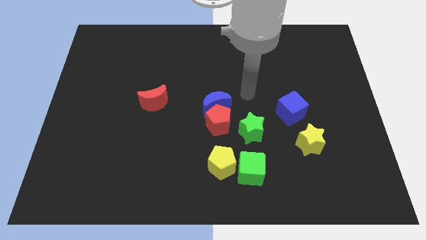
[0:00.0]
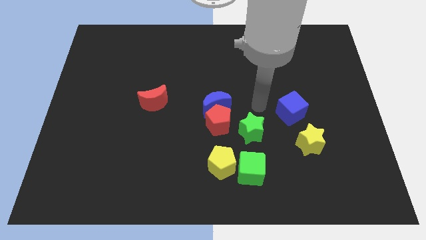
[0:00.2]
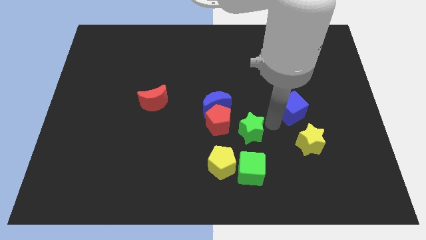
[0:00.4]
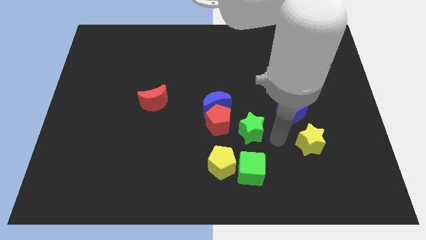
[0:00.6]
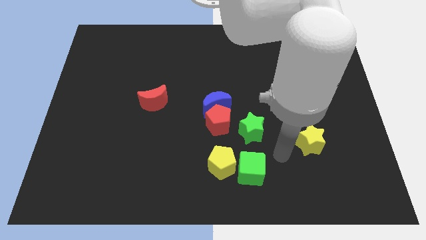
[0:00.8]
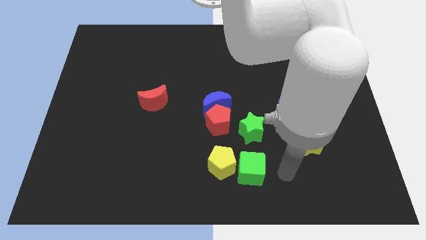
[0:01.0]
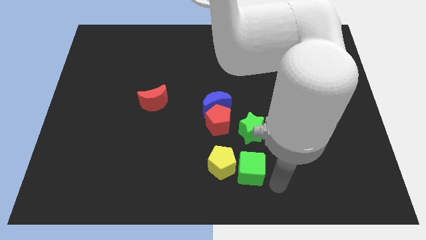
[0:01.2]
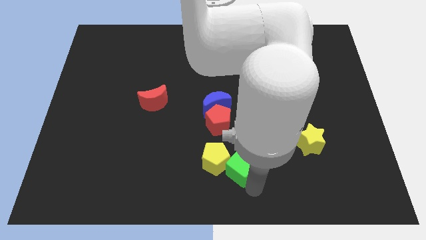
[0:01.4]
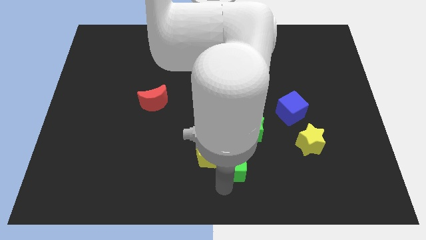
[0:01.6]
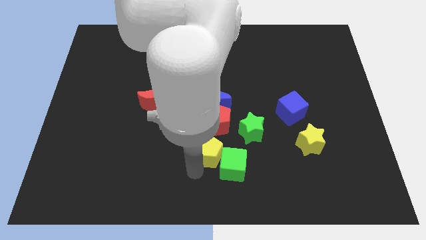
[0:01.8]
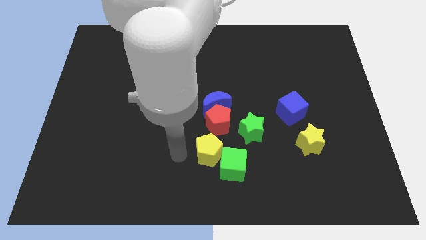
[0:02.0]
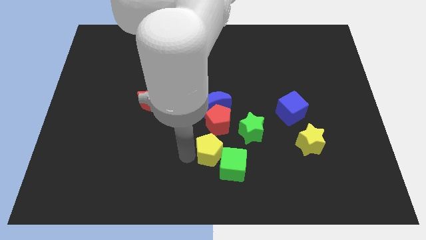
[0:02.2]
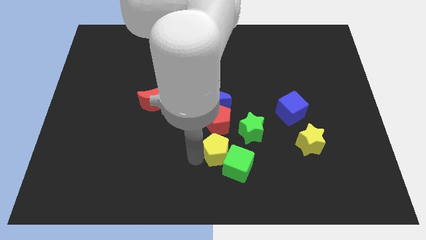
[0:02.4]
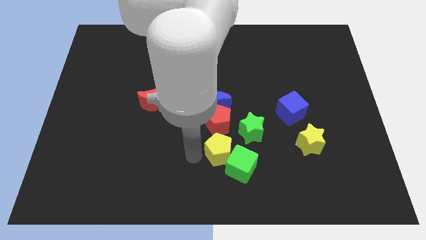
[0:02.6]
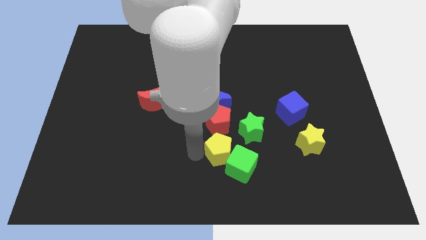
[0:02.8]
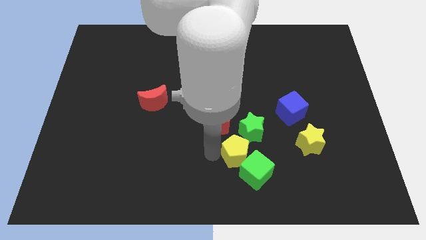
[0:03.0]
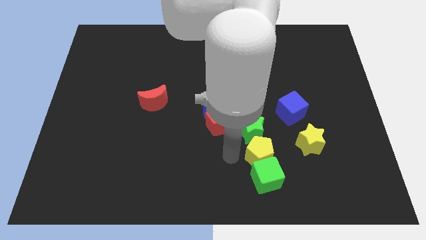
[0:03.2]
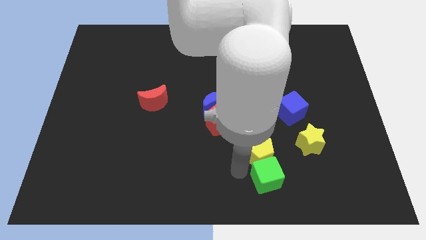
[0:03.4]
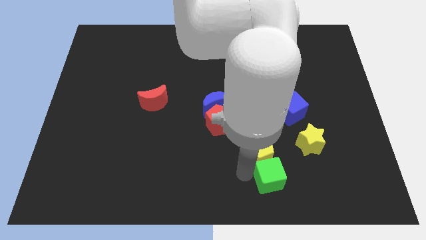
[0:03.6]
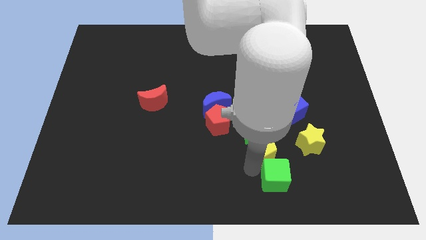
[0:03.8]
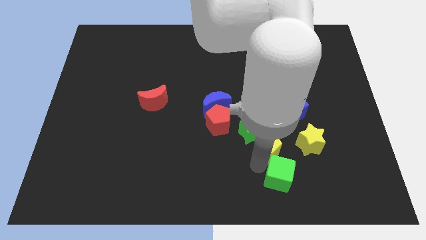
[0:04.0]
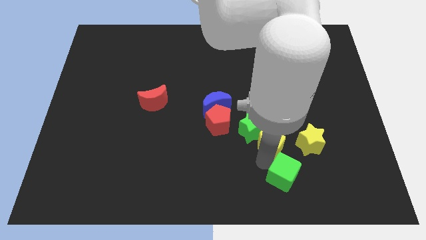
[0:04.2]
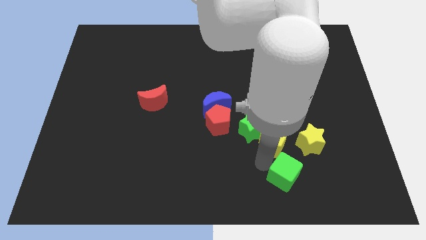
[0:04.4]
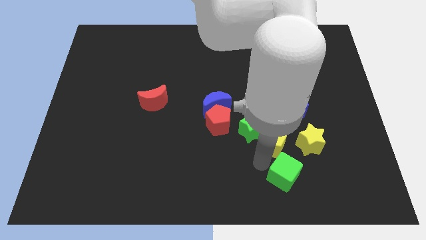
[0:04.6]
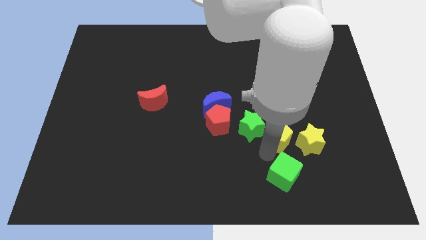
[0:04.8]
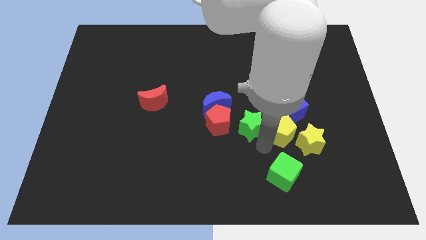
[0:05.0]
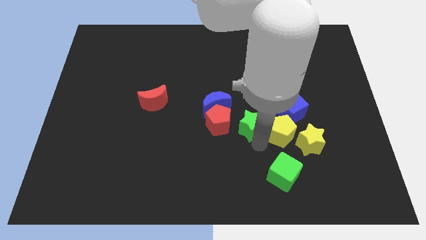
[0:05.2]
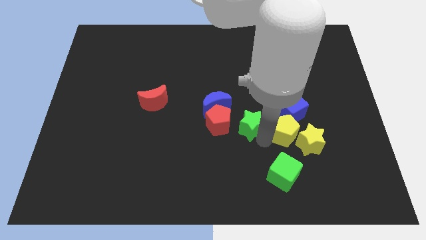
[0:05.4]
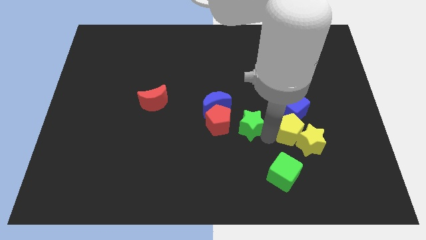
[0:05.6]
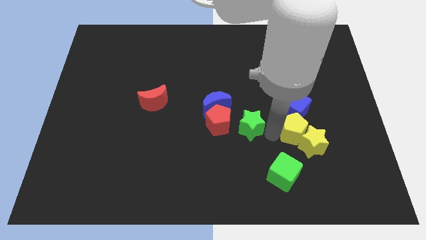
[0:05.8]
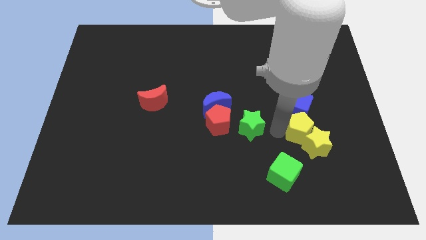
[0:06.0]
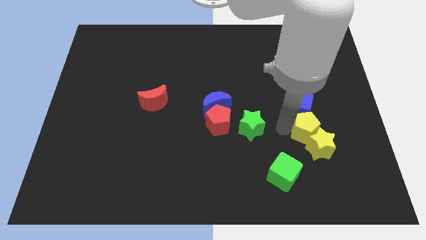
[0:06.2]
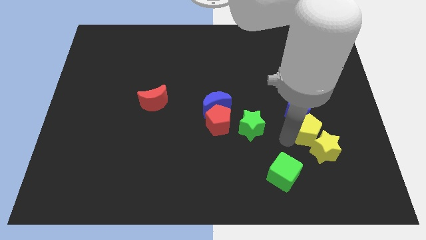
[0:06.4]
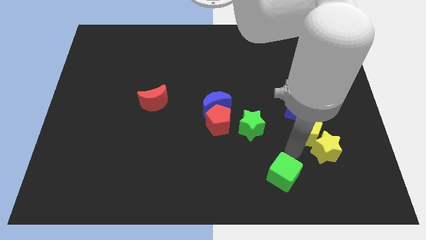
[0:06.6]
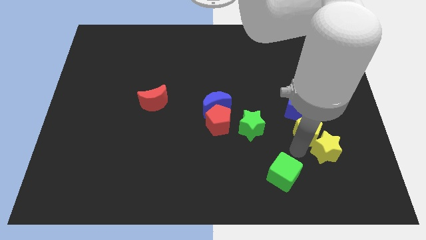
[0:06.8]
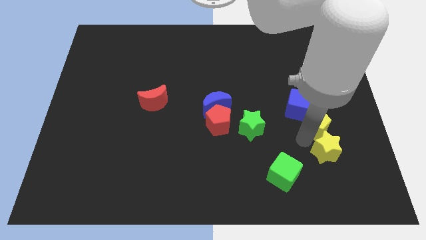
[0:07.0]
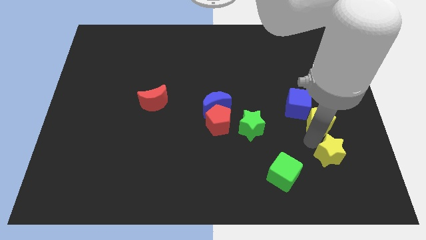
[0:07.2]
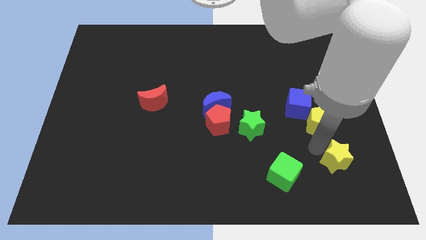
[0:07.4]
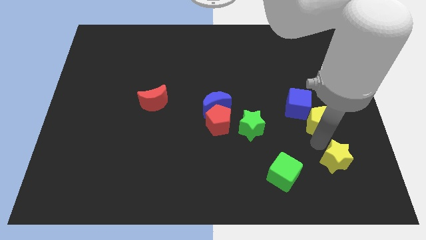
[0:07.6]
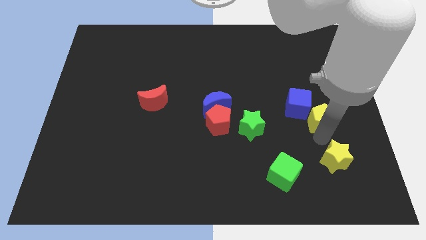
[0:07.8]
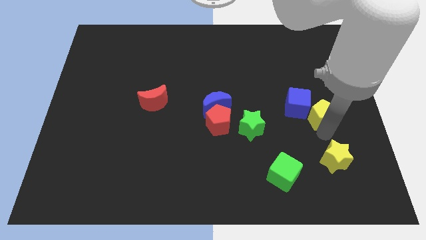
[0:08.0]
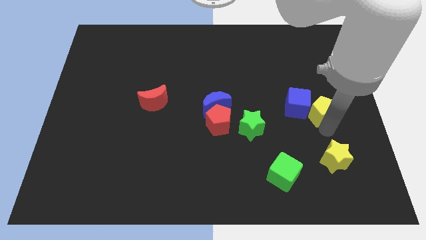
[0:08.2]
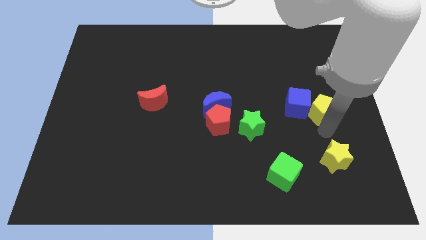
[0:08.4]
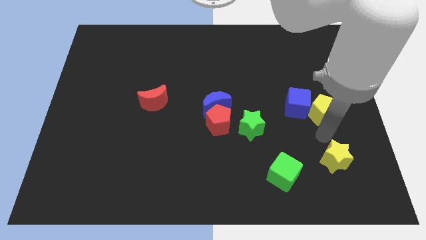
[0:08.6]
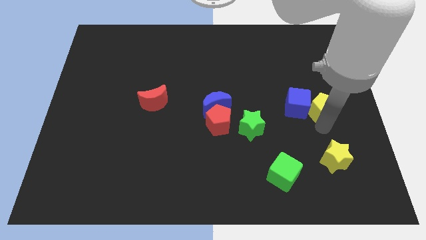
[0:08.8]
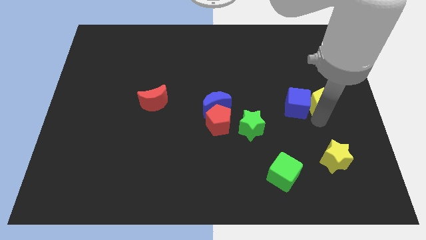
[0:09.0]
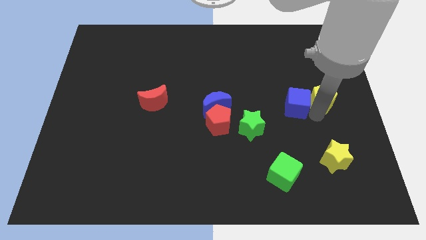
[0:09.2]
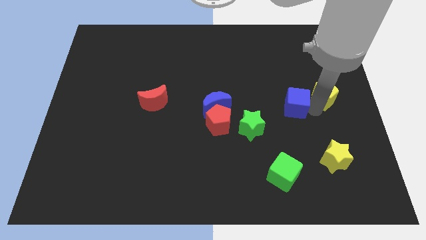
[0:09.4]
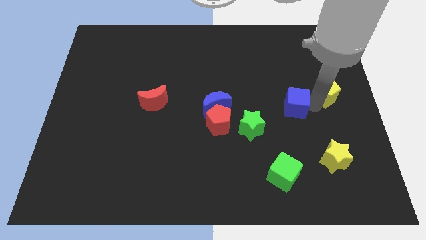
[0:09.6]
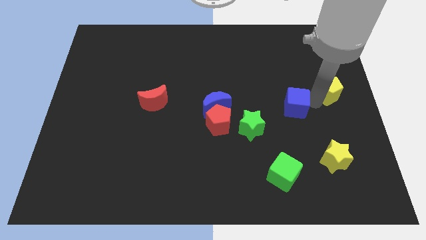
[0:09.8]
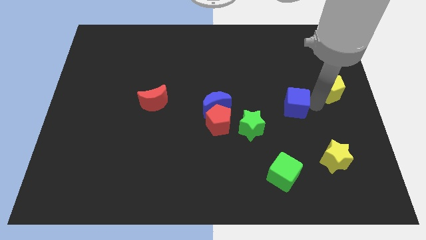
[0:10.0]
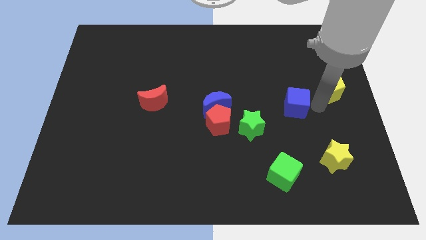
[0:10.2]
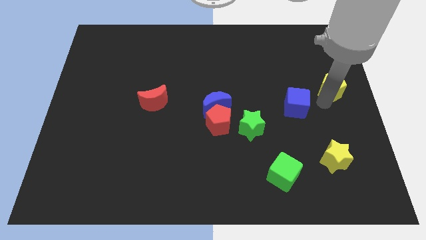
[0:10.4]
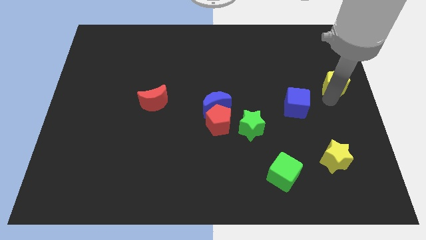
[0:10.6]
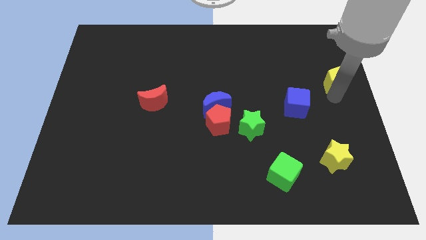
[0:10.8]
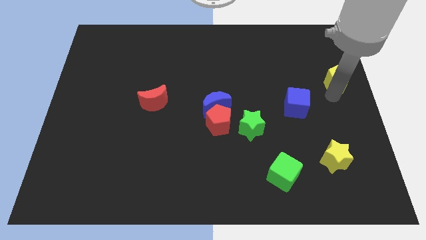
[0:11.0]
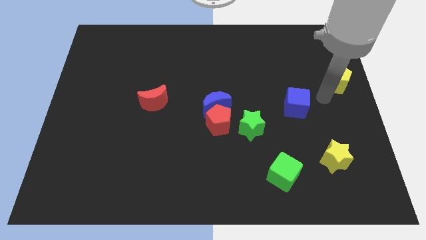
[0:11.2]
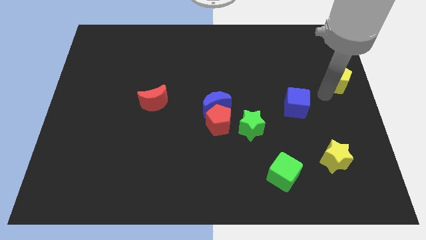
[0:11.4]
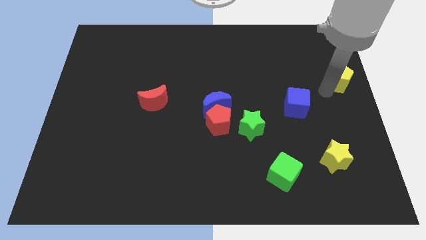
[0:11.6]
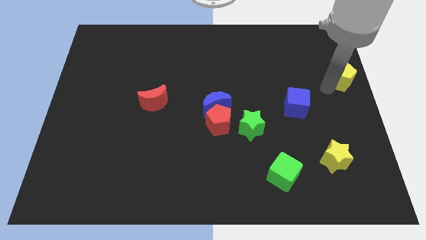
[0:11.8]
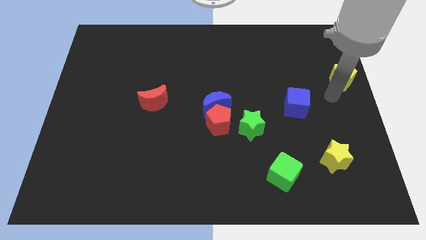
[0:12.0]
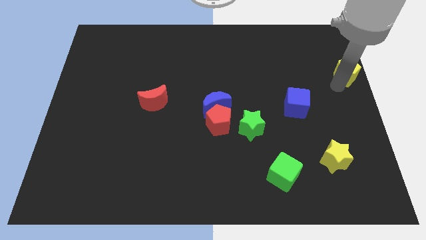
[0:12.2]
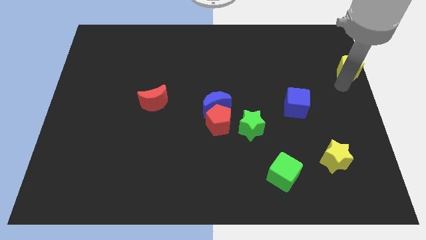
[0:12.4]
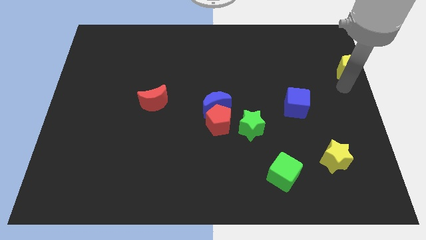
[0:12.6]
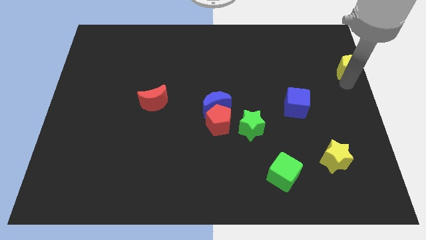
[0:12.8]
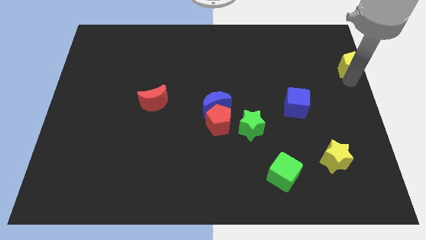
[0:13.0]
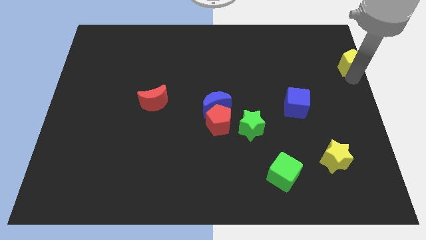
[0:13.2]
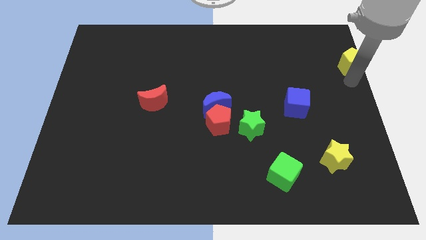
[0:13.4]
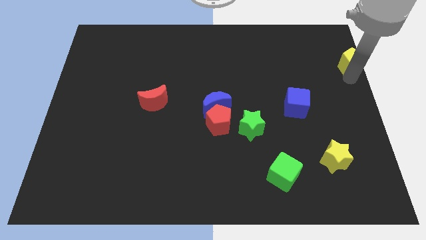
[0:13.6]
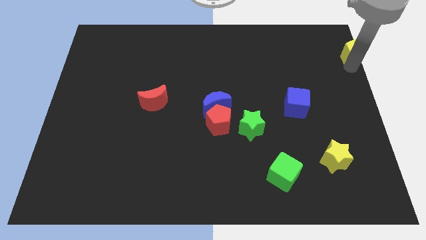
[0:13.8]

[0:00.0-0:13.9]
put the yellow pentagon to the top right of the board
